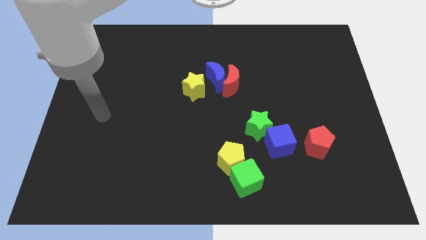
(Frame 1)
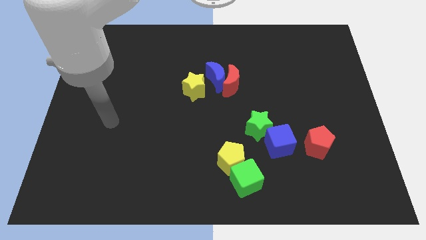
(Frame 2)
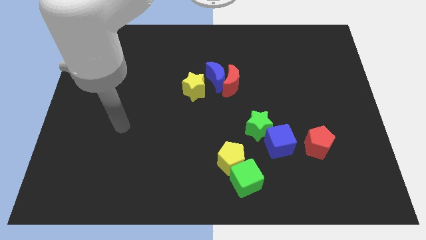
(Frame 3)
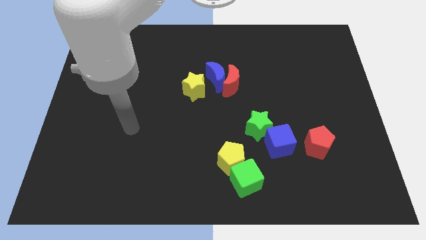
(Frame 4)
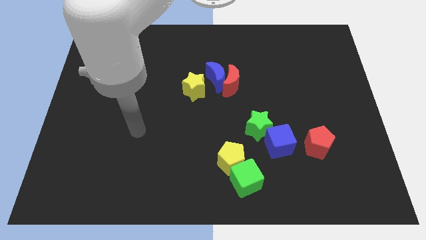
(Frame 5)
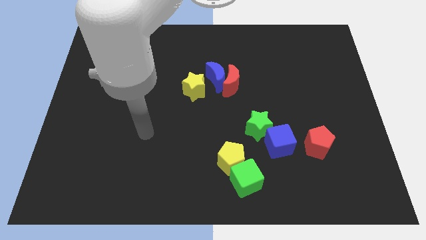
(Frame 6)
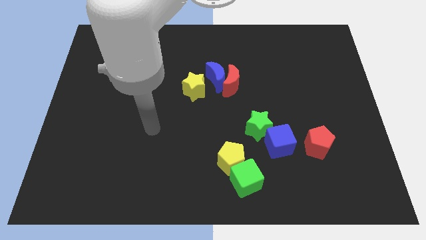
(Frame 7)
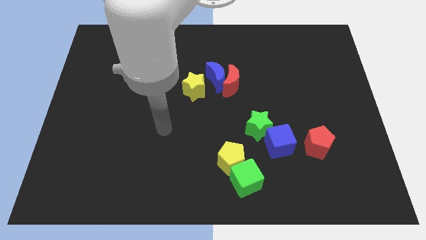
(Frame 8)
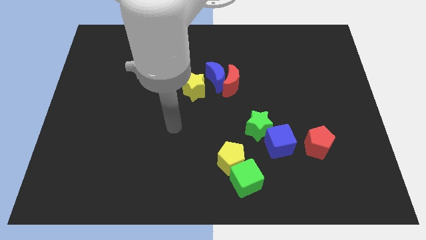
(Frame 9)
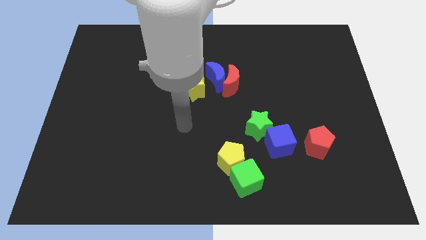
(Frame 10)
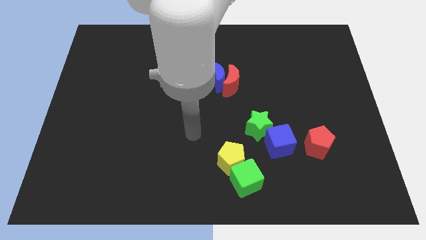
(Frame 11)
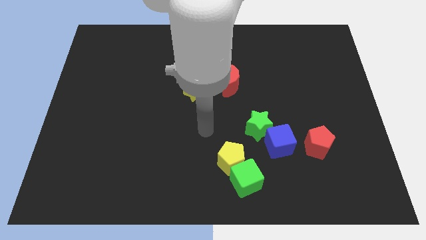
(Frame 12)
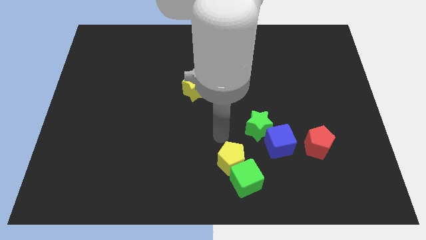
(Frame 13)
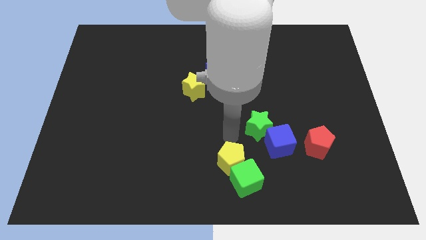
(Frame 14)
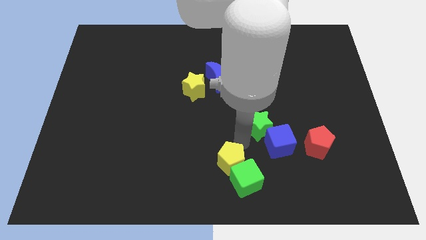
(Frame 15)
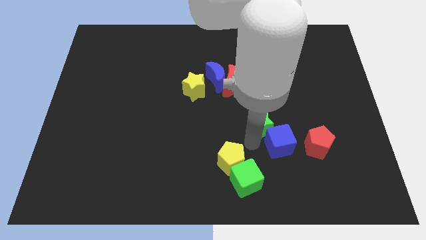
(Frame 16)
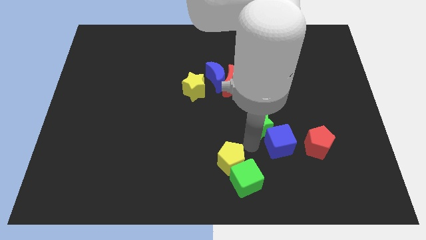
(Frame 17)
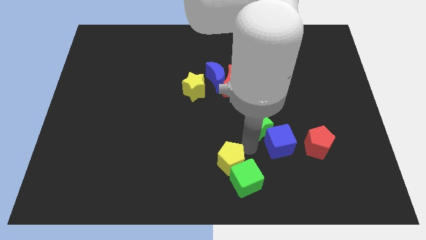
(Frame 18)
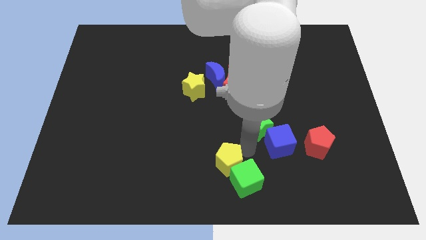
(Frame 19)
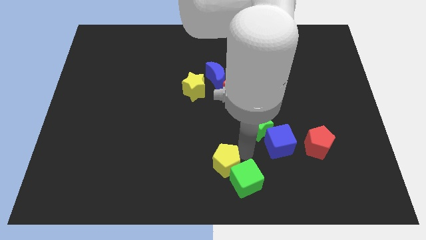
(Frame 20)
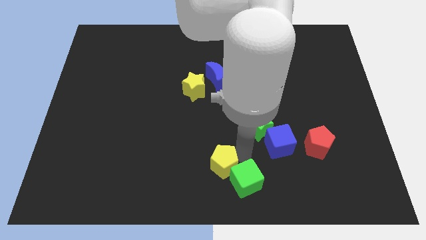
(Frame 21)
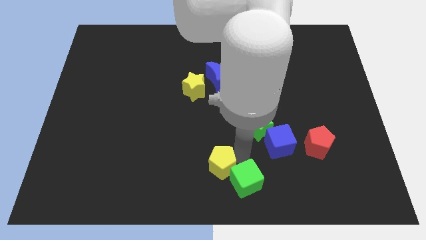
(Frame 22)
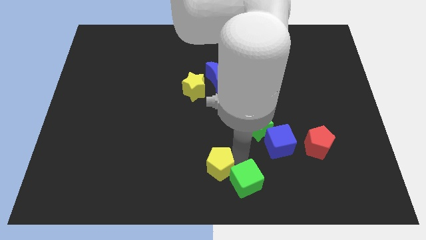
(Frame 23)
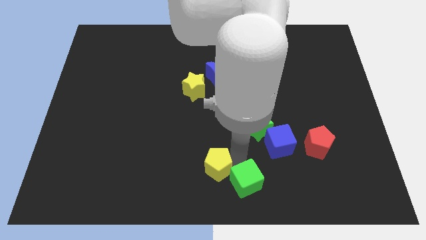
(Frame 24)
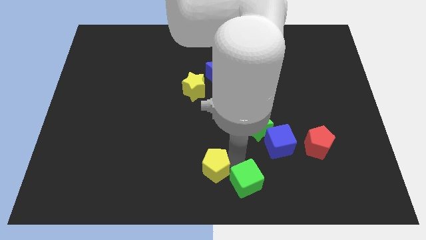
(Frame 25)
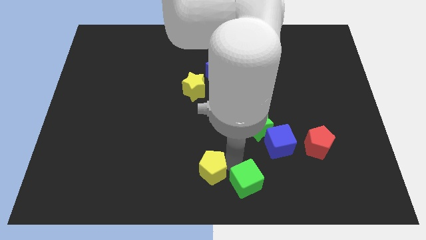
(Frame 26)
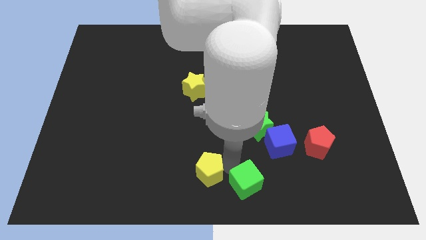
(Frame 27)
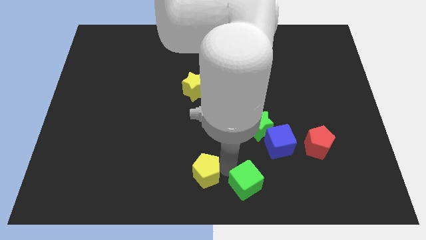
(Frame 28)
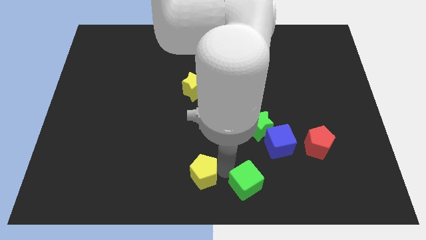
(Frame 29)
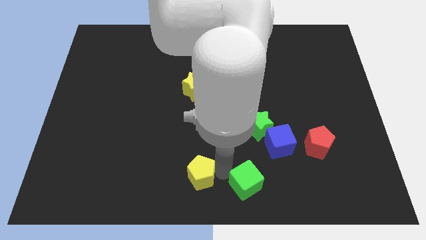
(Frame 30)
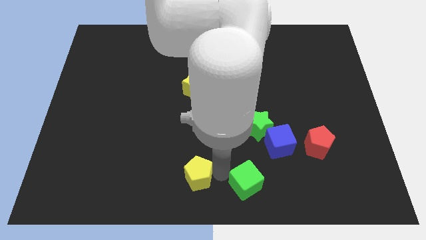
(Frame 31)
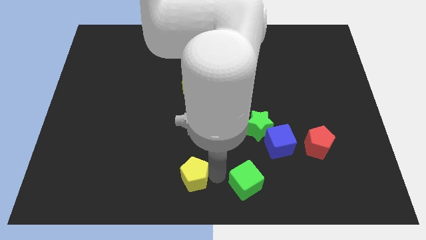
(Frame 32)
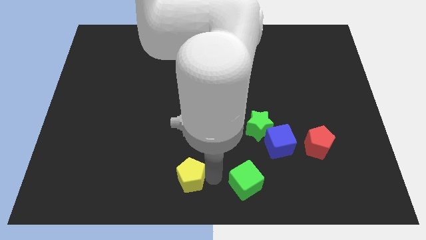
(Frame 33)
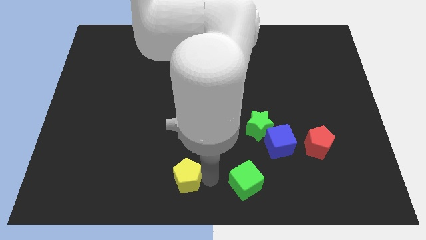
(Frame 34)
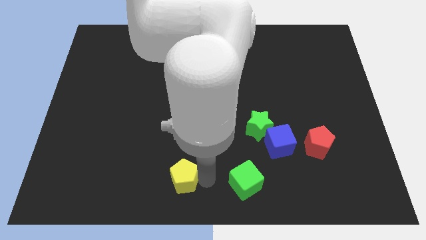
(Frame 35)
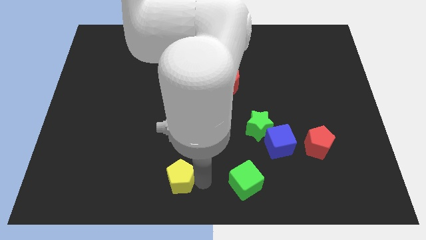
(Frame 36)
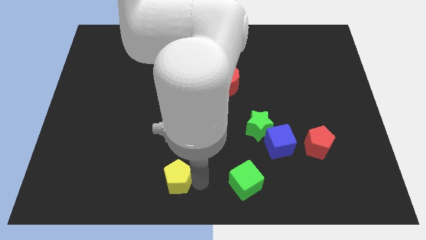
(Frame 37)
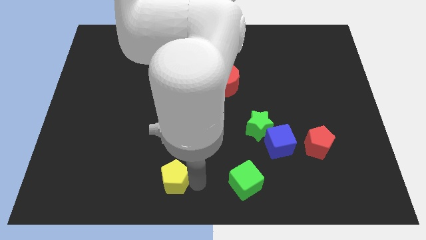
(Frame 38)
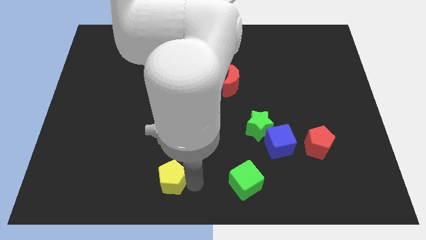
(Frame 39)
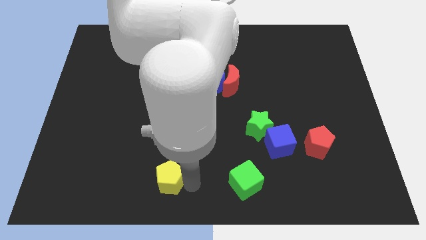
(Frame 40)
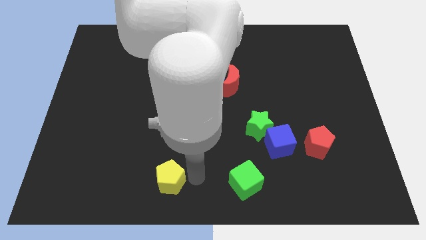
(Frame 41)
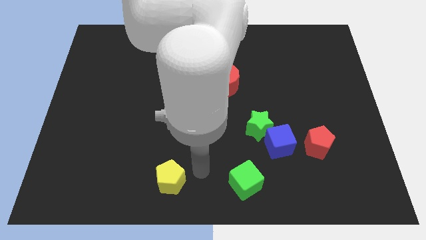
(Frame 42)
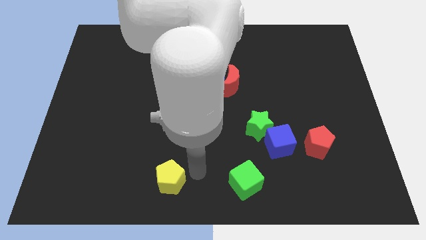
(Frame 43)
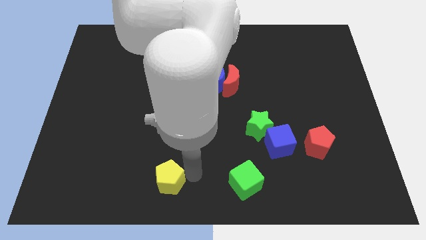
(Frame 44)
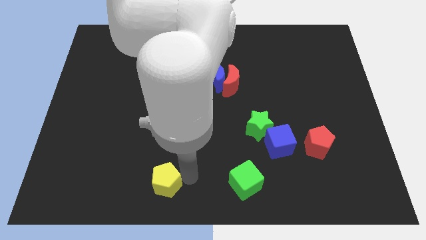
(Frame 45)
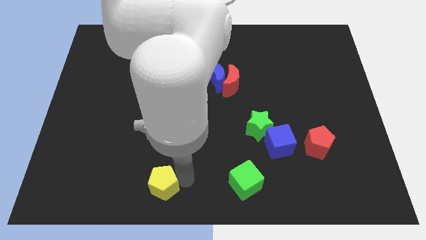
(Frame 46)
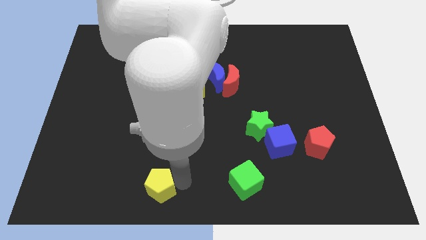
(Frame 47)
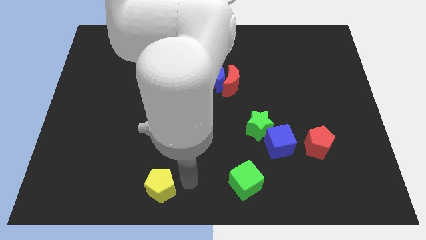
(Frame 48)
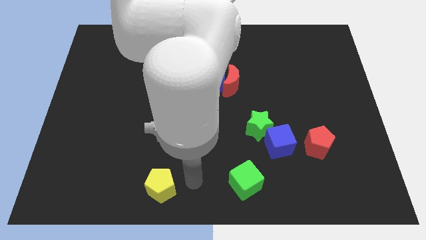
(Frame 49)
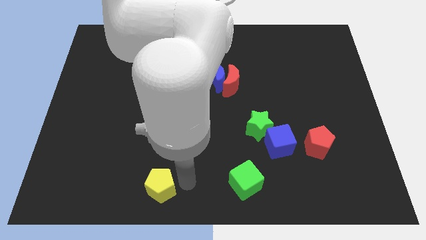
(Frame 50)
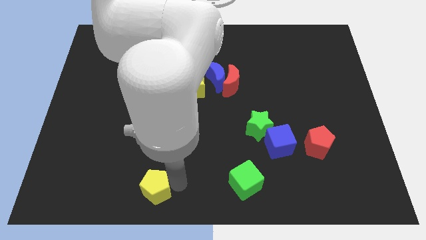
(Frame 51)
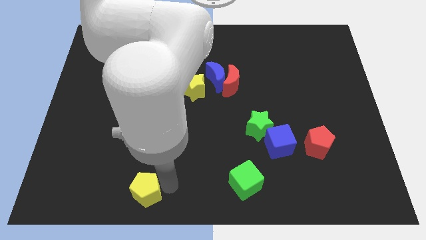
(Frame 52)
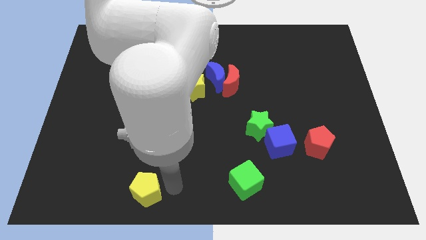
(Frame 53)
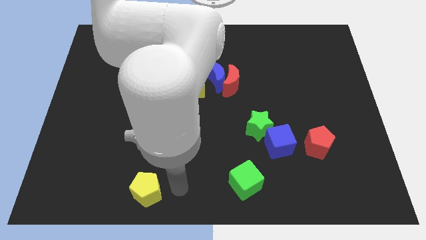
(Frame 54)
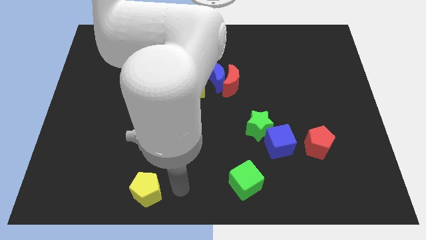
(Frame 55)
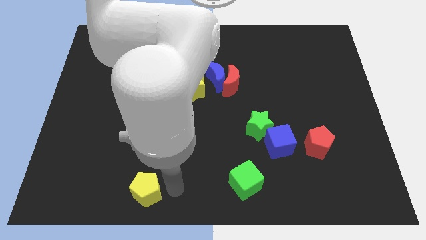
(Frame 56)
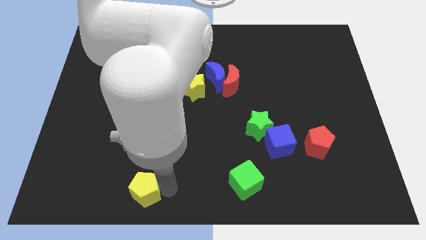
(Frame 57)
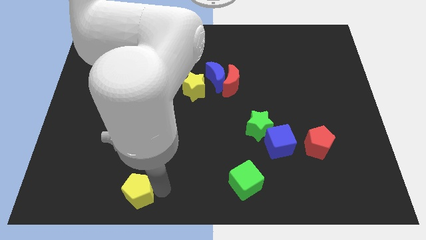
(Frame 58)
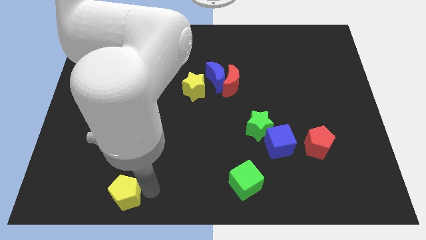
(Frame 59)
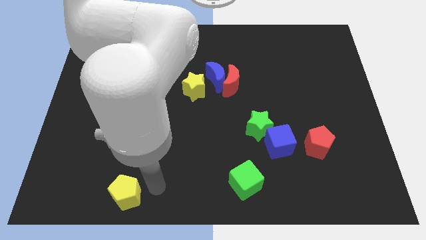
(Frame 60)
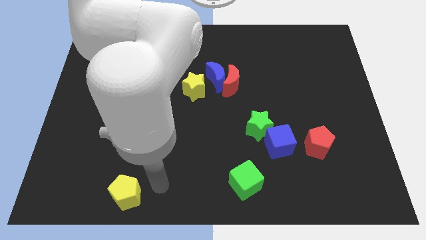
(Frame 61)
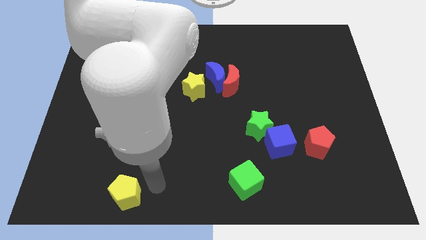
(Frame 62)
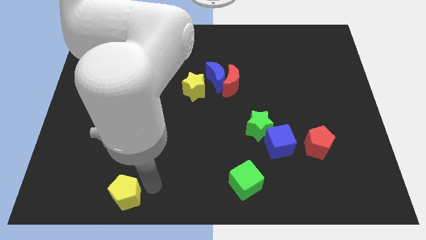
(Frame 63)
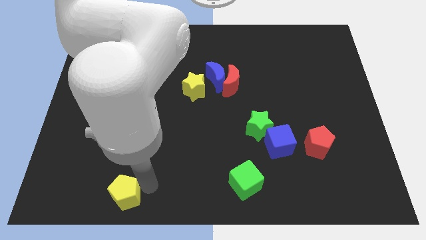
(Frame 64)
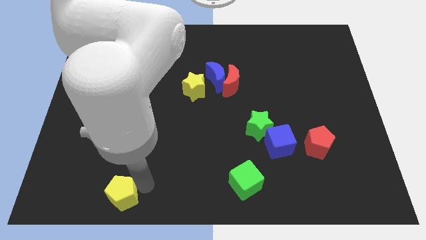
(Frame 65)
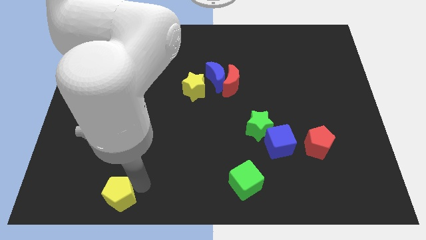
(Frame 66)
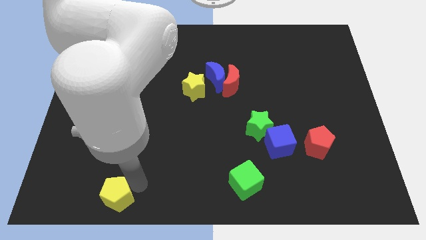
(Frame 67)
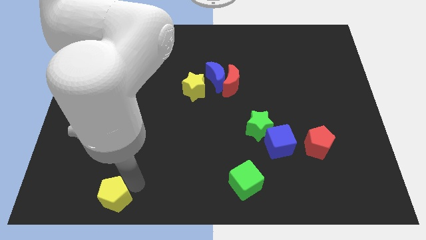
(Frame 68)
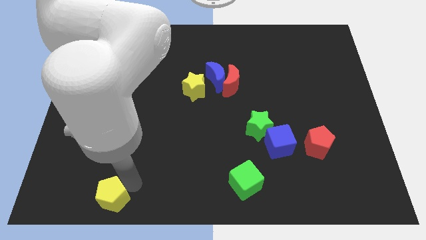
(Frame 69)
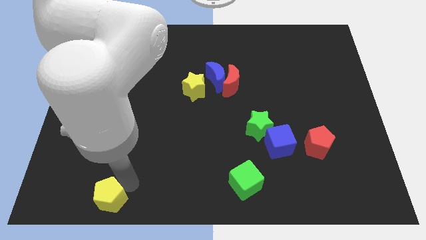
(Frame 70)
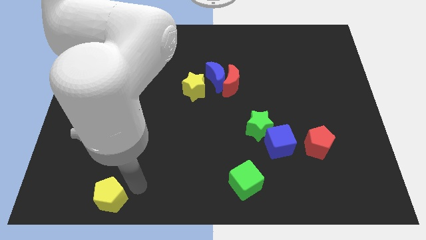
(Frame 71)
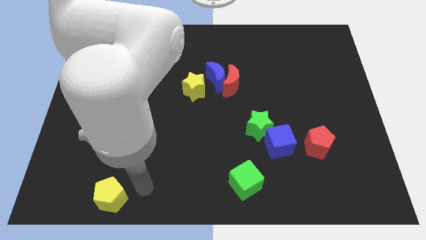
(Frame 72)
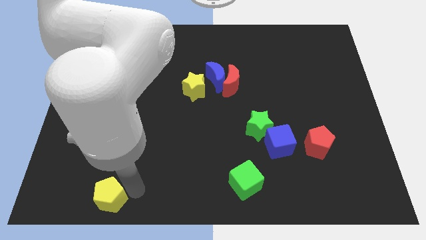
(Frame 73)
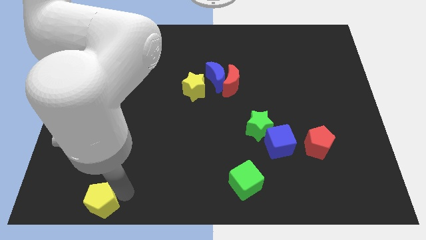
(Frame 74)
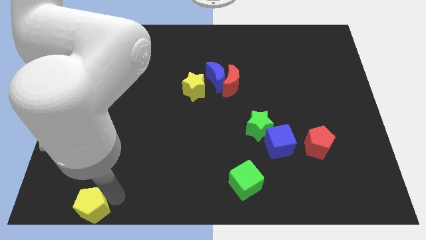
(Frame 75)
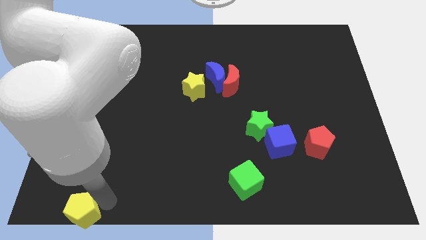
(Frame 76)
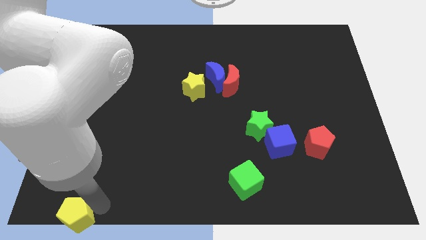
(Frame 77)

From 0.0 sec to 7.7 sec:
put the yellow pentagon to the bottom left of the board
